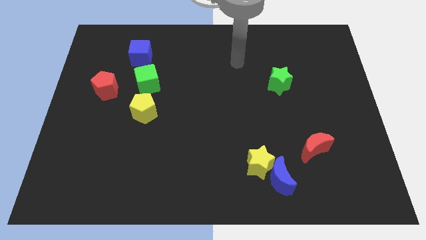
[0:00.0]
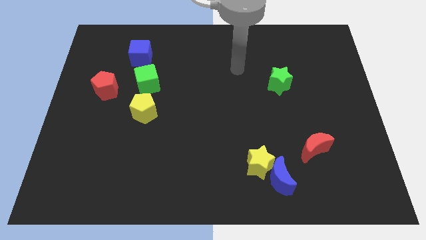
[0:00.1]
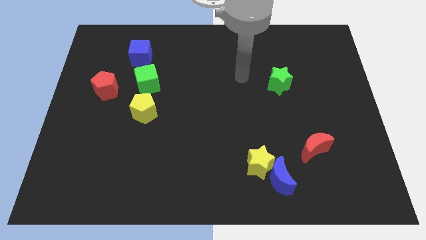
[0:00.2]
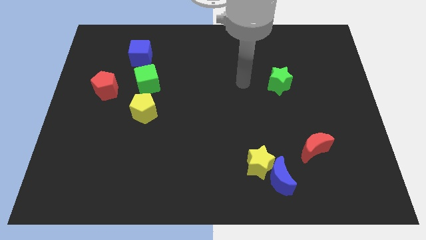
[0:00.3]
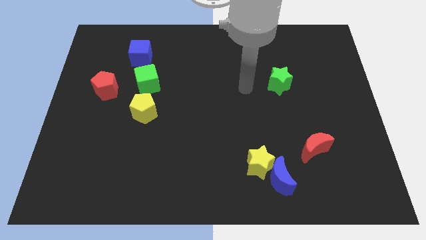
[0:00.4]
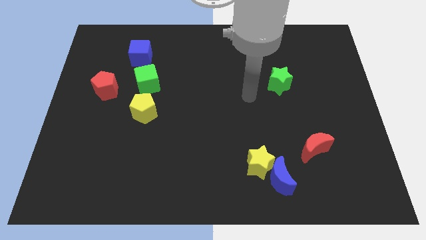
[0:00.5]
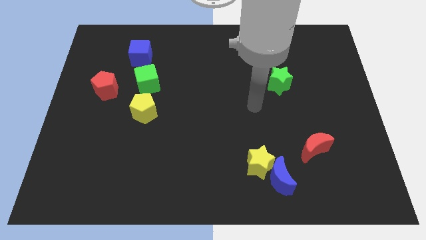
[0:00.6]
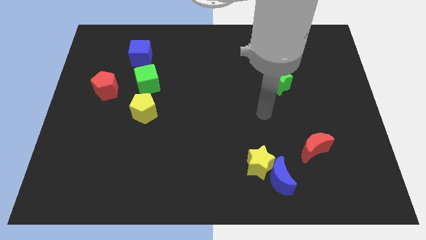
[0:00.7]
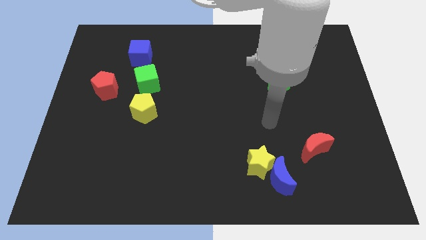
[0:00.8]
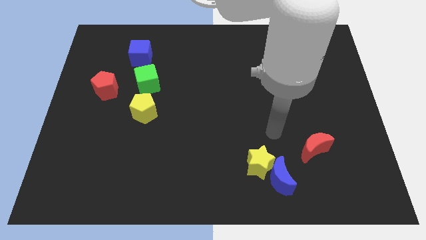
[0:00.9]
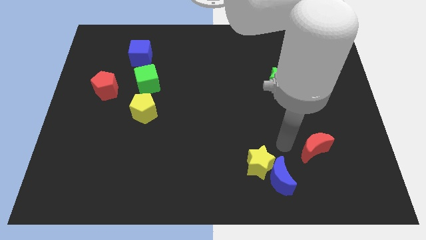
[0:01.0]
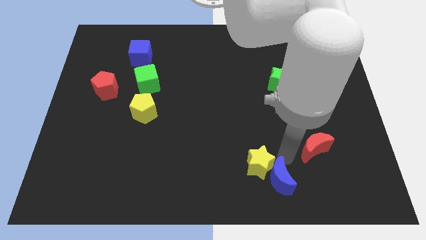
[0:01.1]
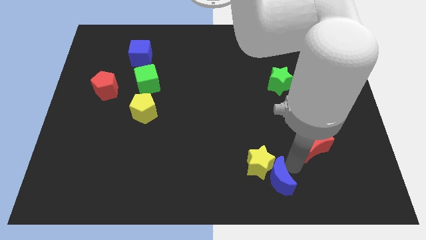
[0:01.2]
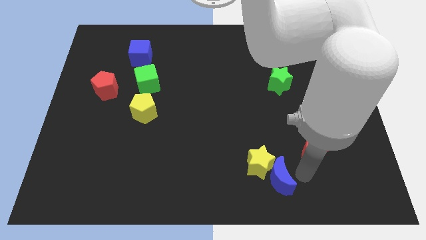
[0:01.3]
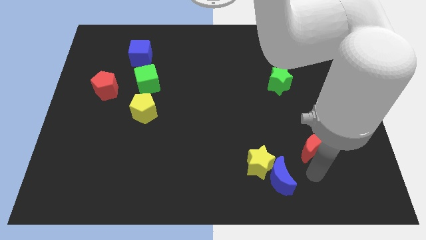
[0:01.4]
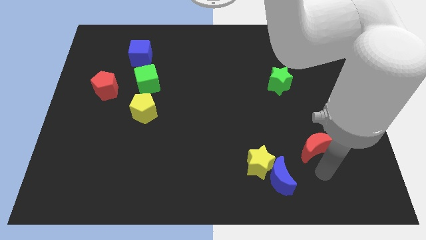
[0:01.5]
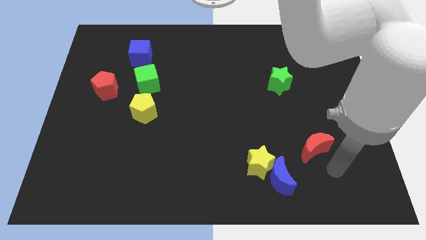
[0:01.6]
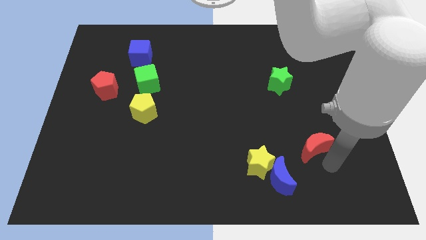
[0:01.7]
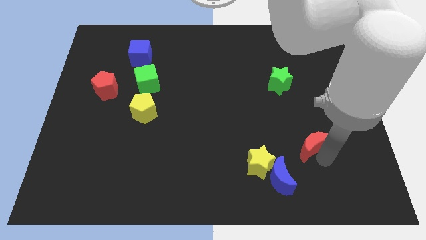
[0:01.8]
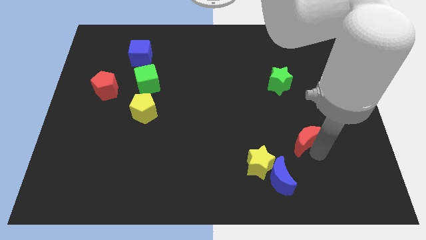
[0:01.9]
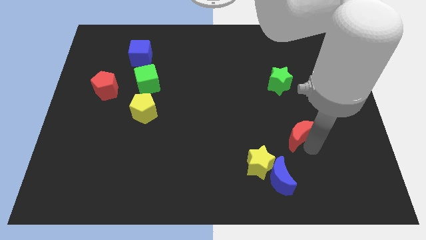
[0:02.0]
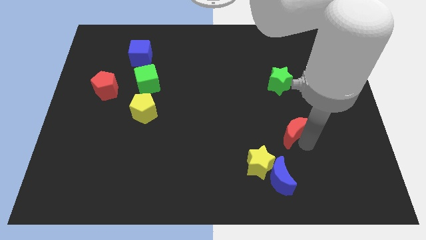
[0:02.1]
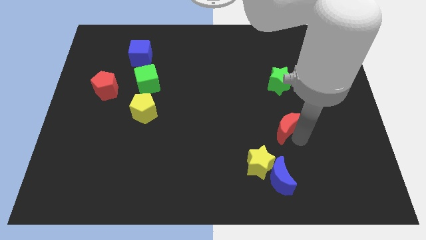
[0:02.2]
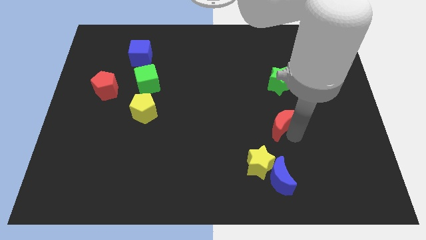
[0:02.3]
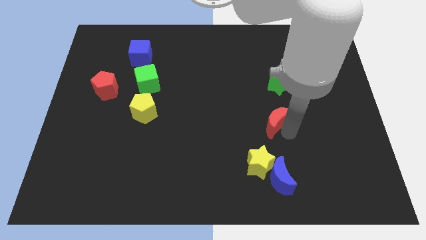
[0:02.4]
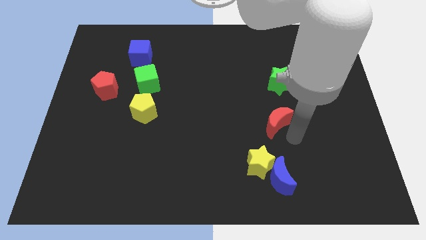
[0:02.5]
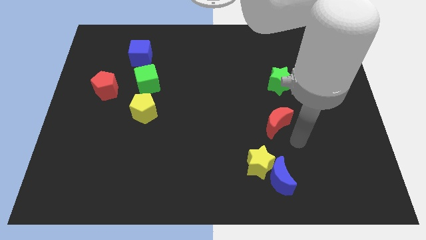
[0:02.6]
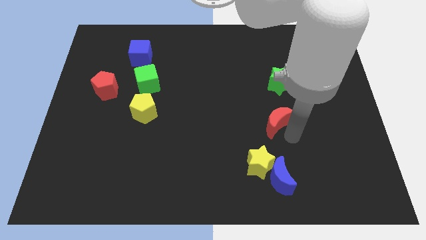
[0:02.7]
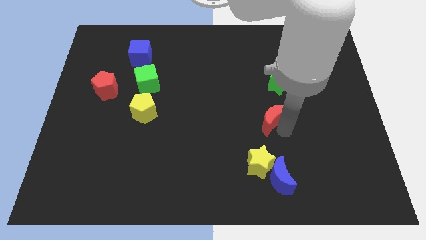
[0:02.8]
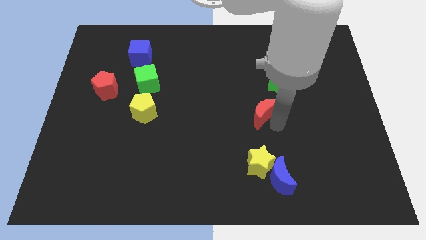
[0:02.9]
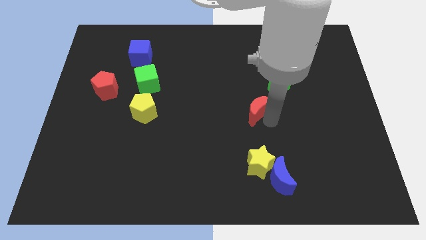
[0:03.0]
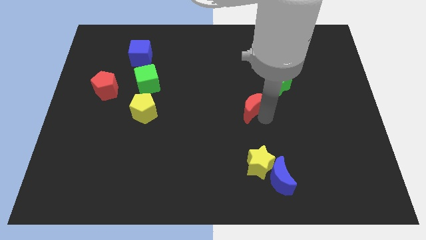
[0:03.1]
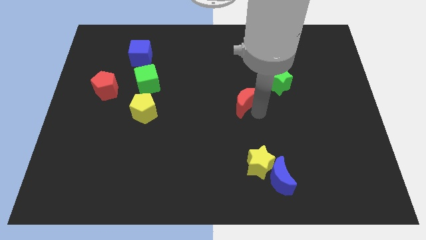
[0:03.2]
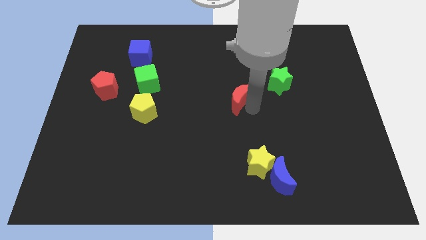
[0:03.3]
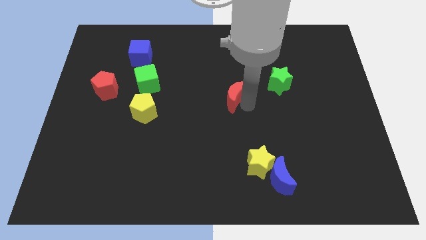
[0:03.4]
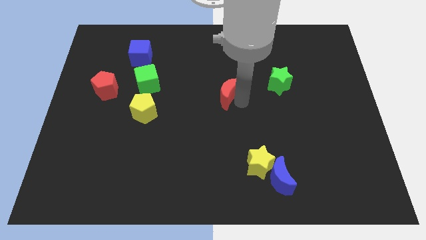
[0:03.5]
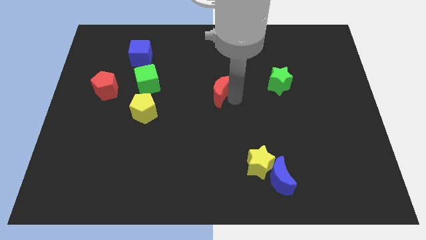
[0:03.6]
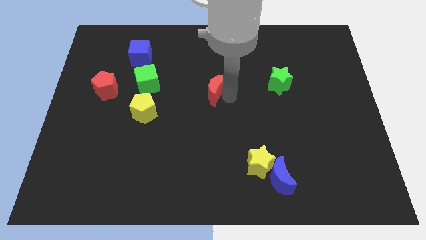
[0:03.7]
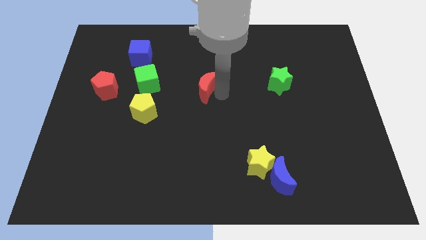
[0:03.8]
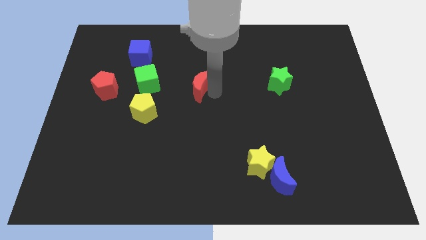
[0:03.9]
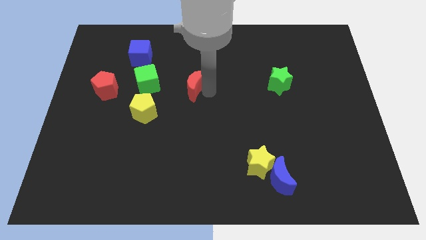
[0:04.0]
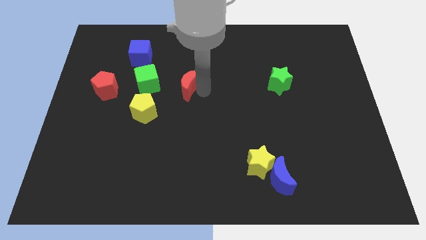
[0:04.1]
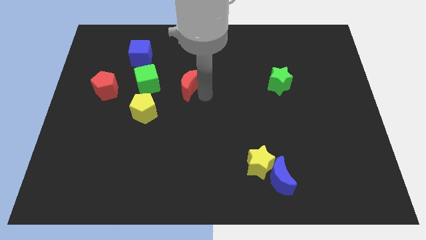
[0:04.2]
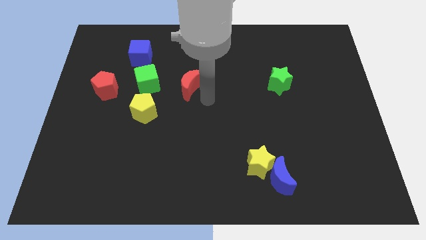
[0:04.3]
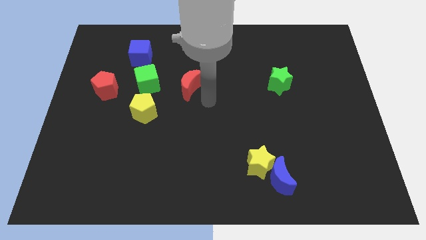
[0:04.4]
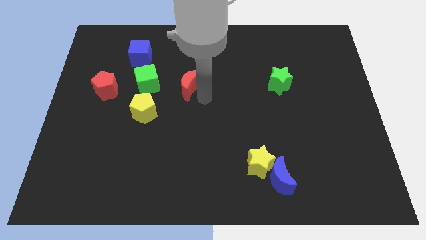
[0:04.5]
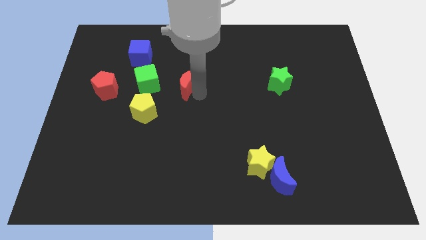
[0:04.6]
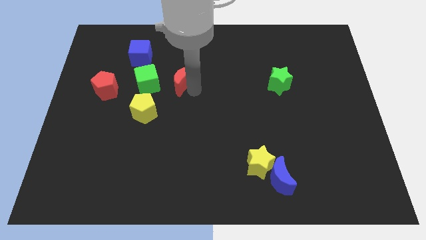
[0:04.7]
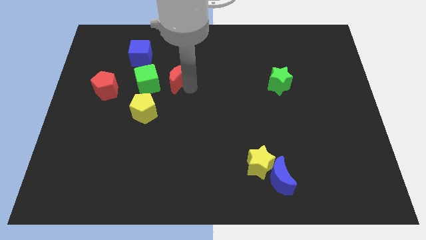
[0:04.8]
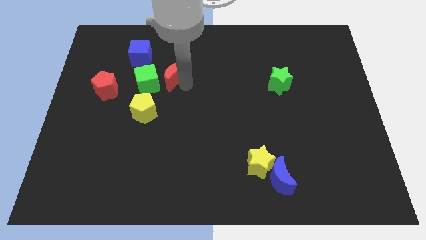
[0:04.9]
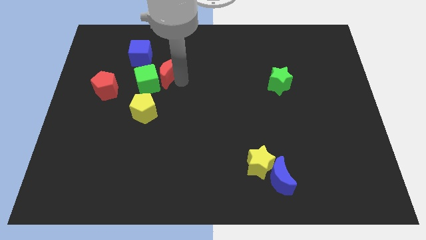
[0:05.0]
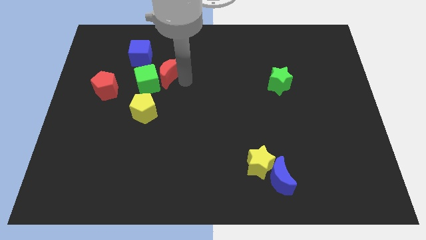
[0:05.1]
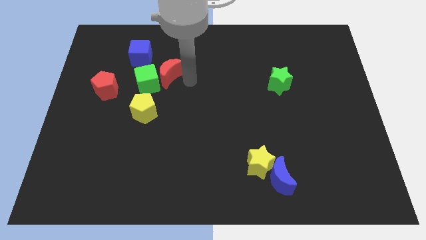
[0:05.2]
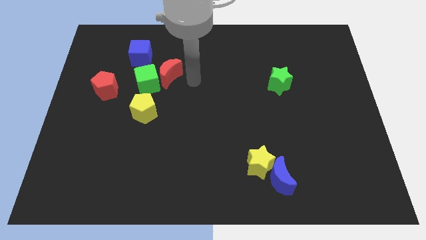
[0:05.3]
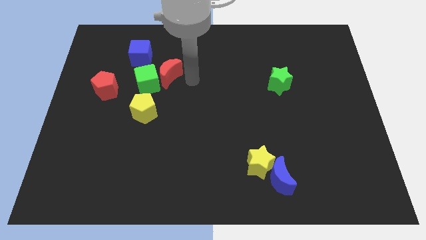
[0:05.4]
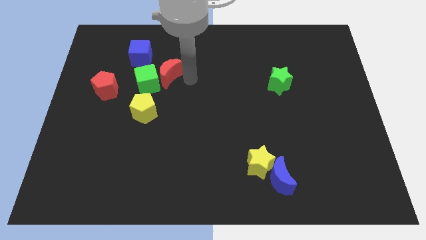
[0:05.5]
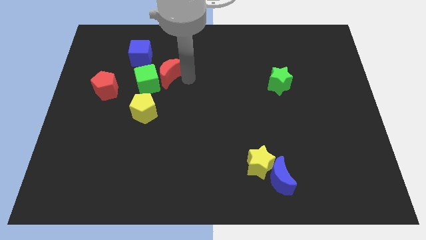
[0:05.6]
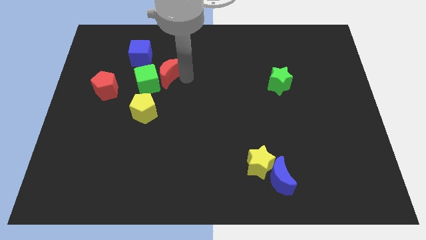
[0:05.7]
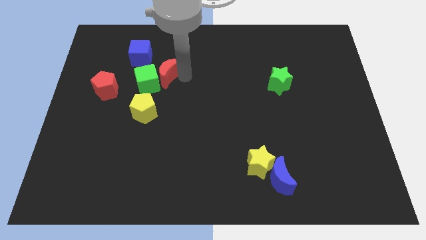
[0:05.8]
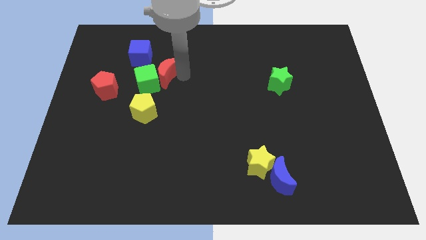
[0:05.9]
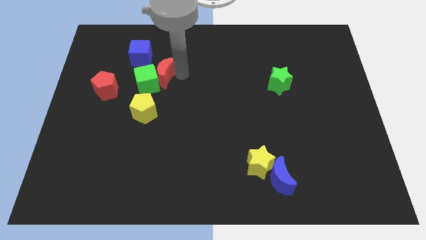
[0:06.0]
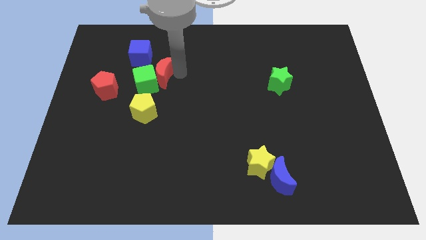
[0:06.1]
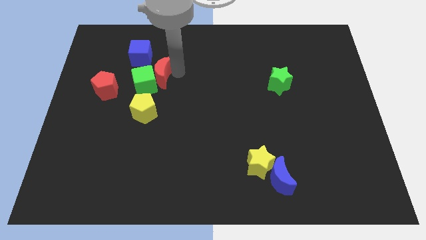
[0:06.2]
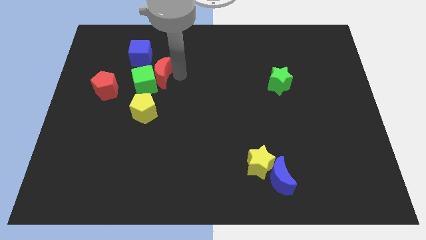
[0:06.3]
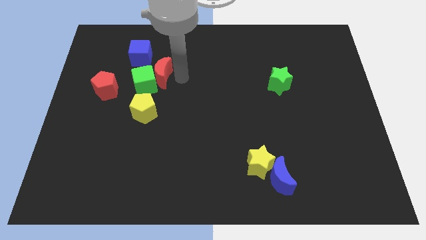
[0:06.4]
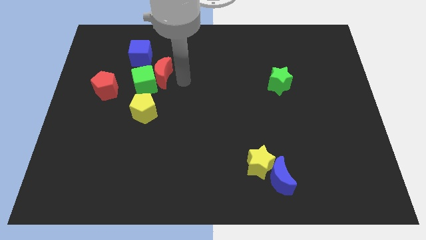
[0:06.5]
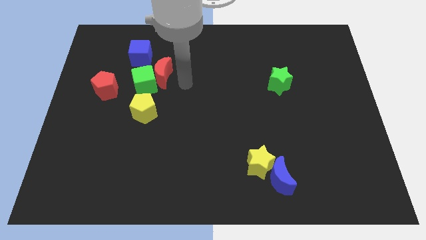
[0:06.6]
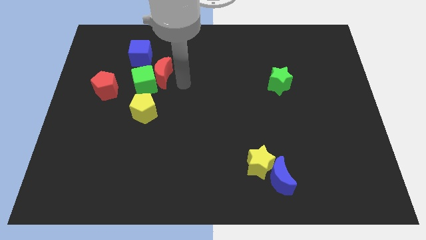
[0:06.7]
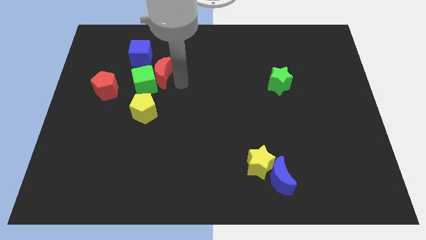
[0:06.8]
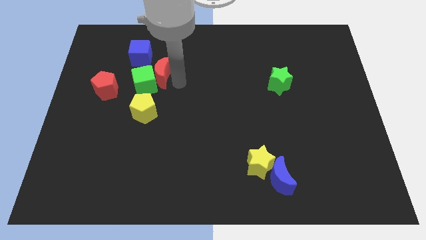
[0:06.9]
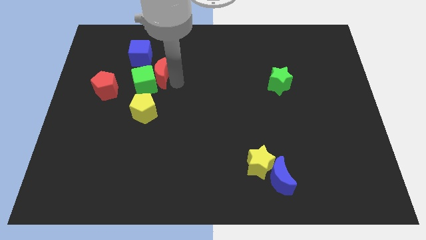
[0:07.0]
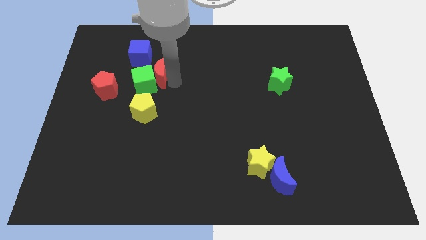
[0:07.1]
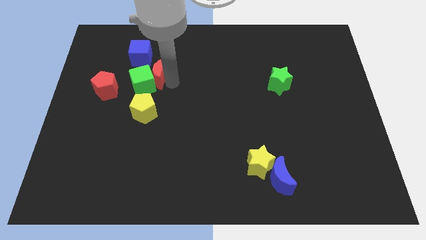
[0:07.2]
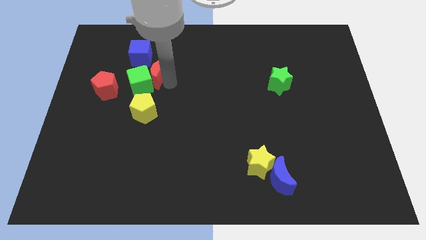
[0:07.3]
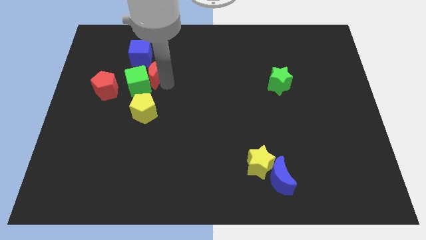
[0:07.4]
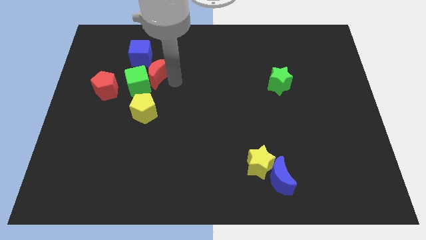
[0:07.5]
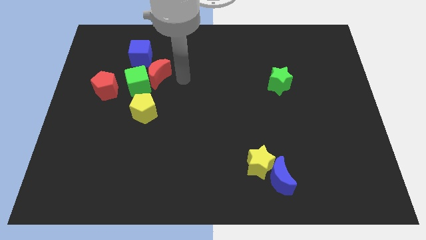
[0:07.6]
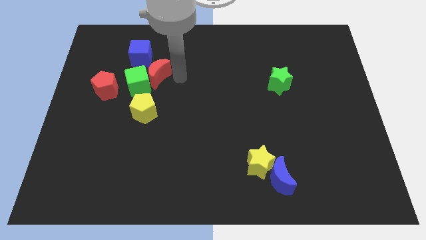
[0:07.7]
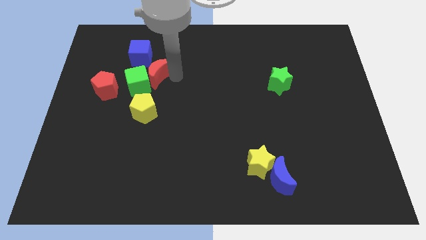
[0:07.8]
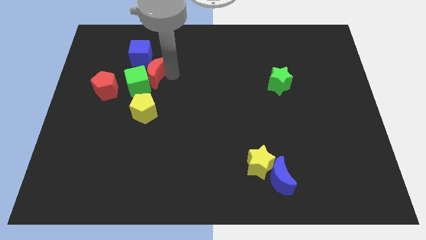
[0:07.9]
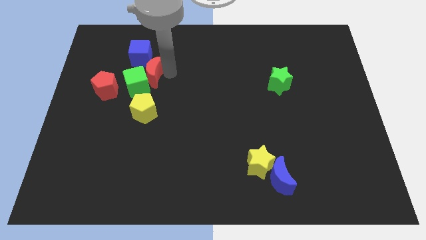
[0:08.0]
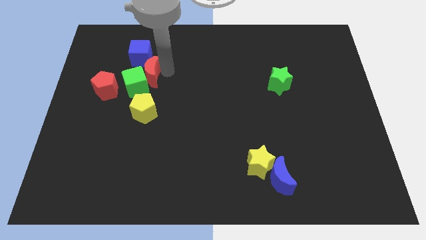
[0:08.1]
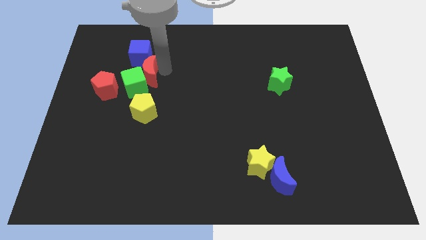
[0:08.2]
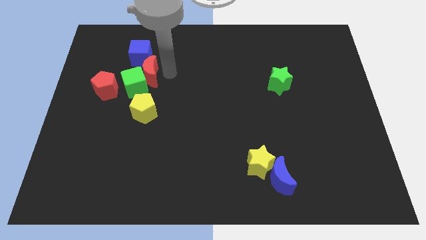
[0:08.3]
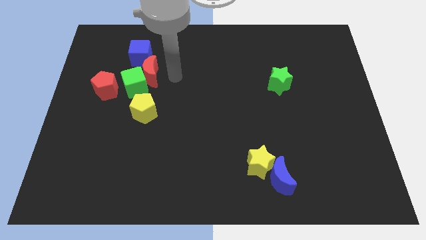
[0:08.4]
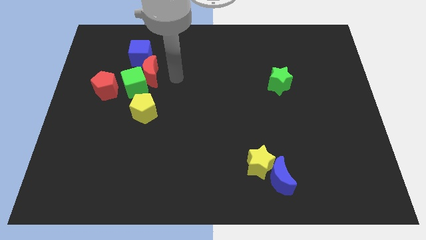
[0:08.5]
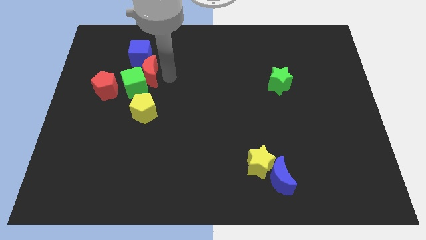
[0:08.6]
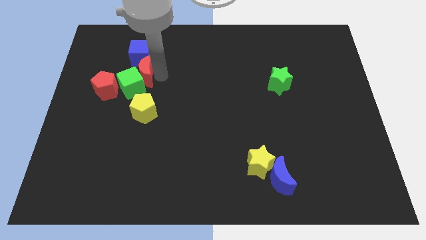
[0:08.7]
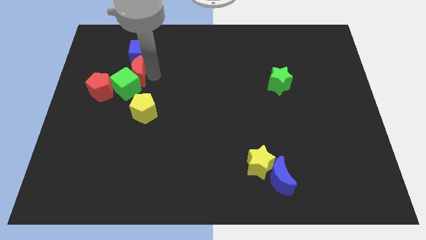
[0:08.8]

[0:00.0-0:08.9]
push the red moon diagonally down and to the left of the blue cube
